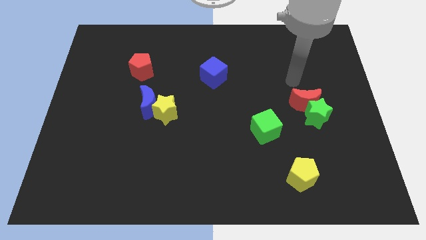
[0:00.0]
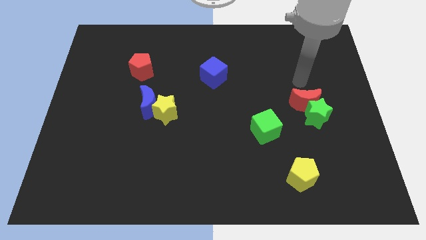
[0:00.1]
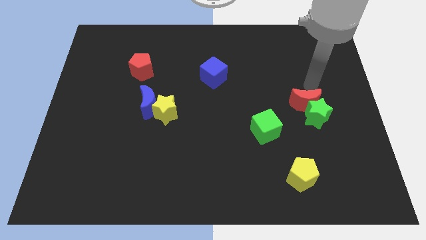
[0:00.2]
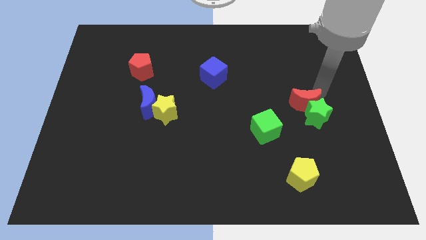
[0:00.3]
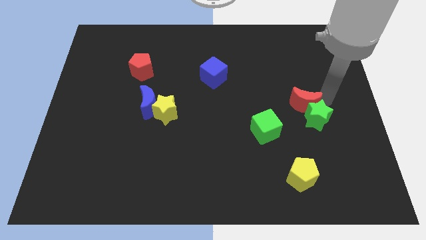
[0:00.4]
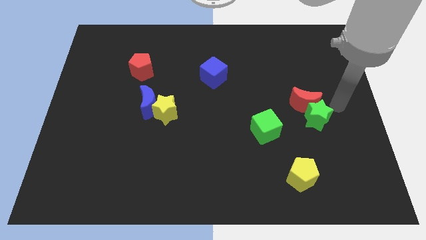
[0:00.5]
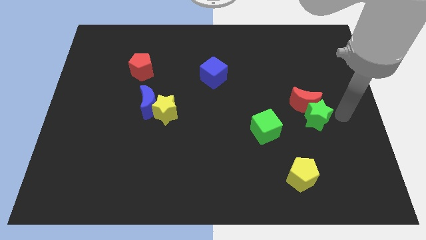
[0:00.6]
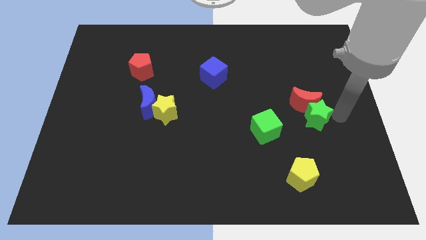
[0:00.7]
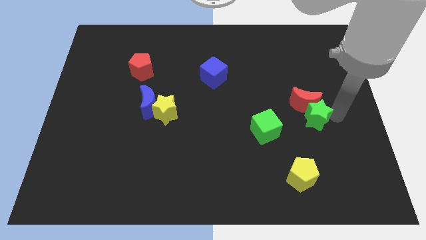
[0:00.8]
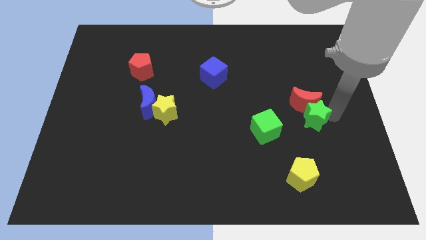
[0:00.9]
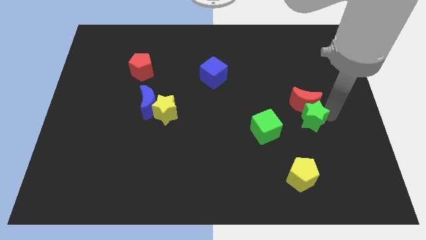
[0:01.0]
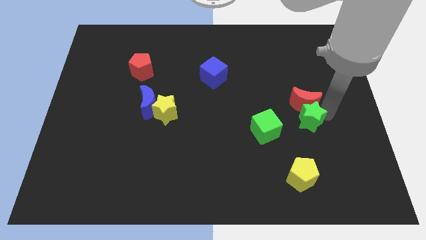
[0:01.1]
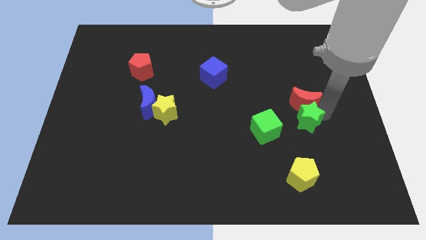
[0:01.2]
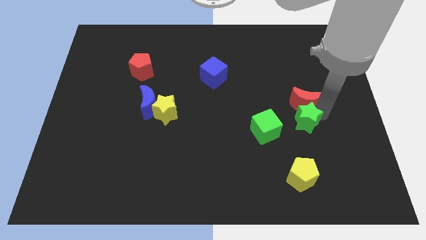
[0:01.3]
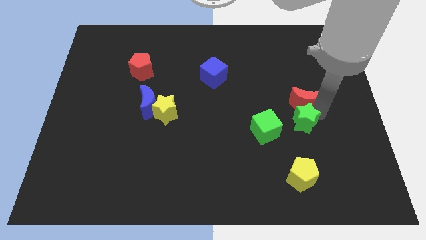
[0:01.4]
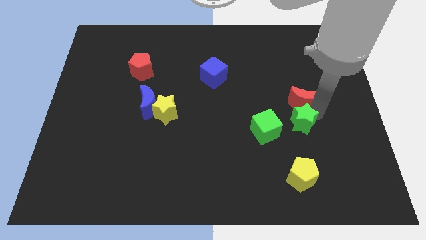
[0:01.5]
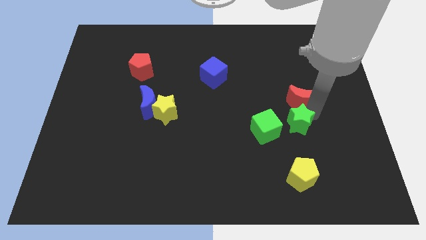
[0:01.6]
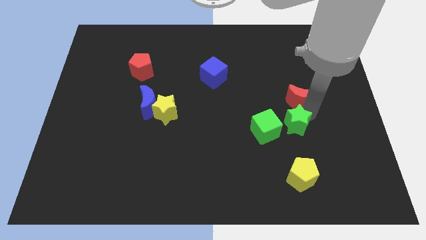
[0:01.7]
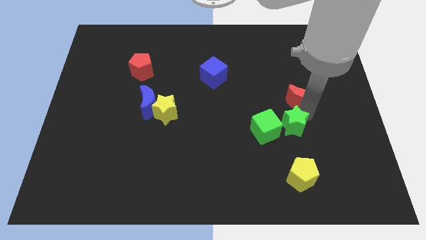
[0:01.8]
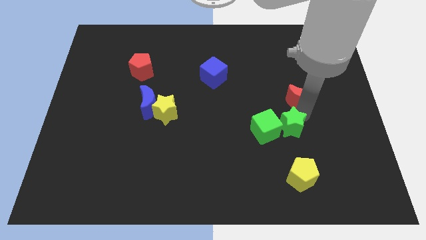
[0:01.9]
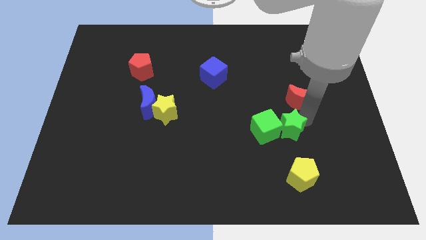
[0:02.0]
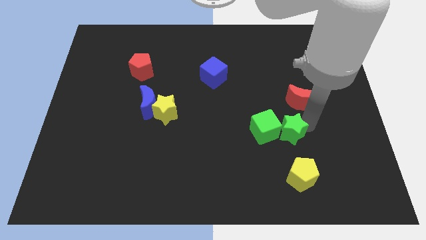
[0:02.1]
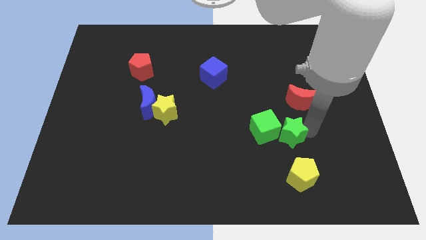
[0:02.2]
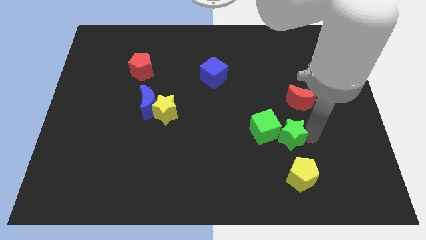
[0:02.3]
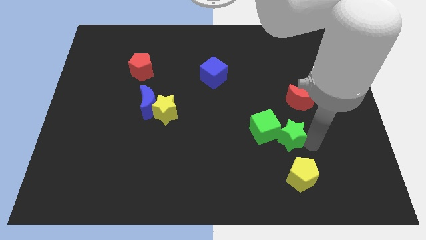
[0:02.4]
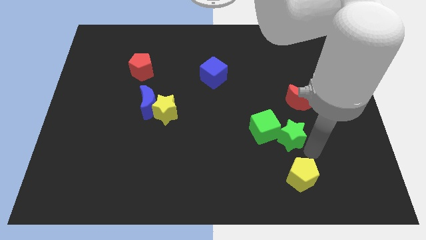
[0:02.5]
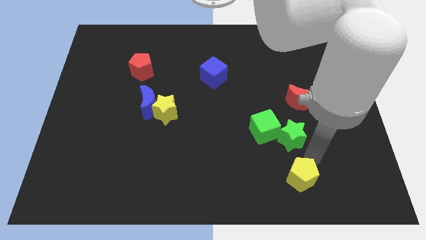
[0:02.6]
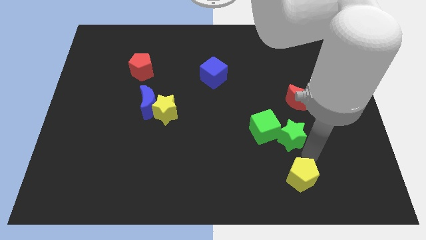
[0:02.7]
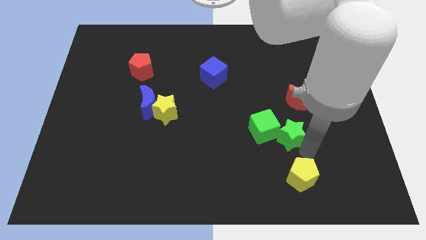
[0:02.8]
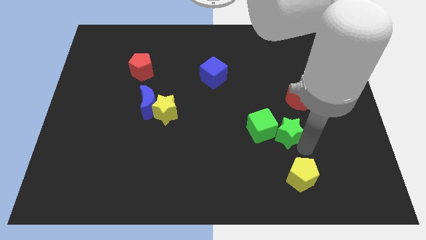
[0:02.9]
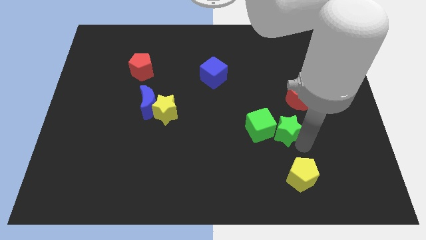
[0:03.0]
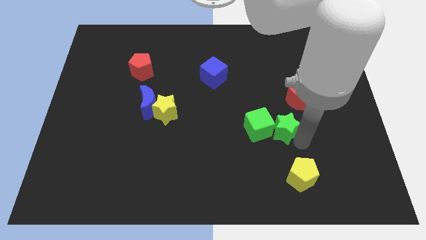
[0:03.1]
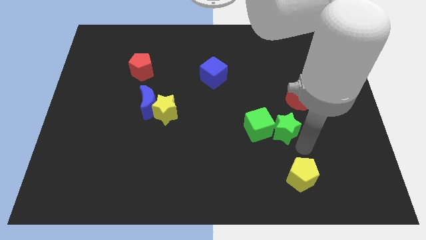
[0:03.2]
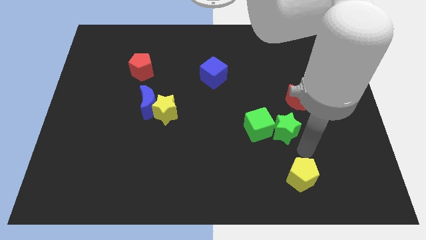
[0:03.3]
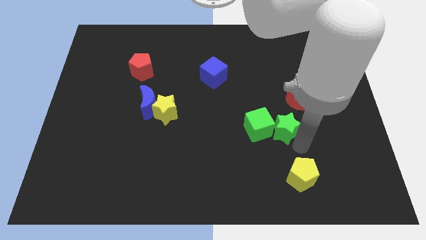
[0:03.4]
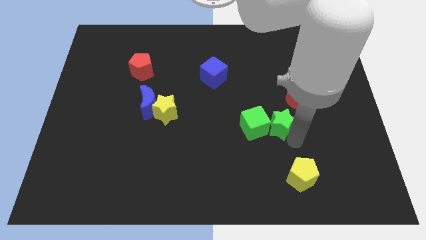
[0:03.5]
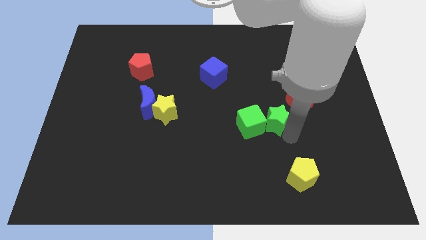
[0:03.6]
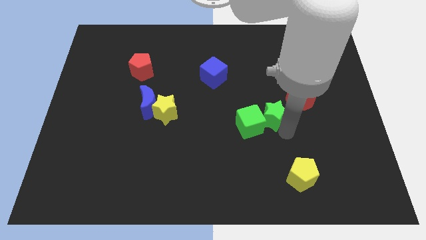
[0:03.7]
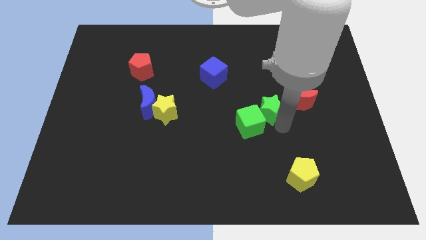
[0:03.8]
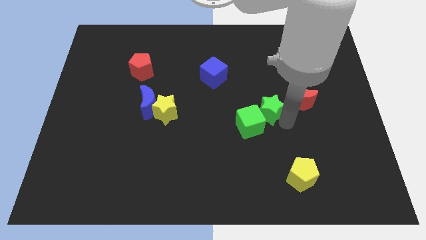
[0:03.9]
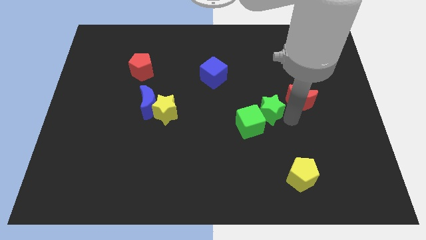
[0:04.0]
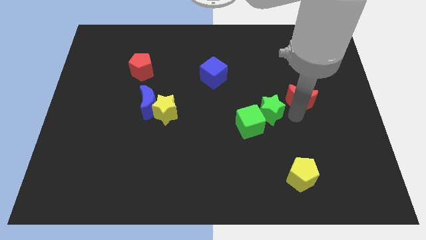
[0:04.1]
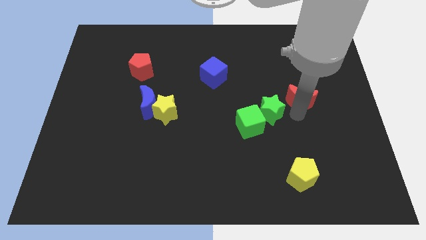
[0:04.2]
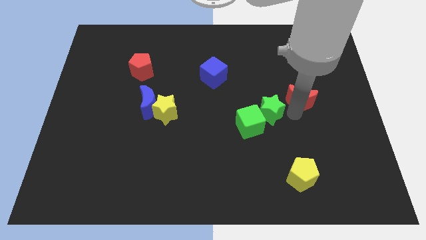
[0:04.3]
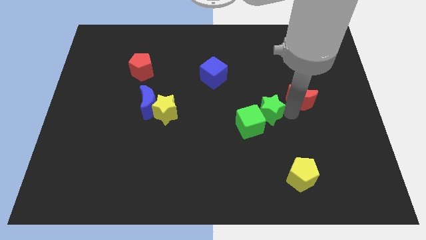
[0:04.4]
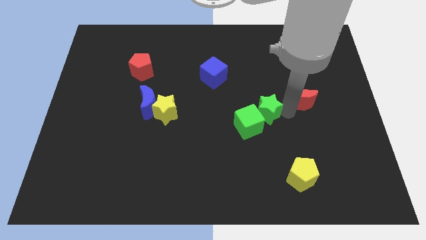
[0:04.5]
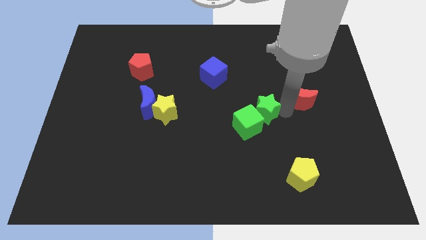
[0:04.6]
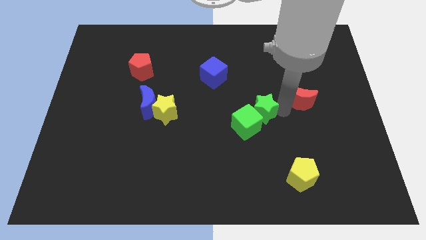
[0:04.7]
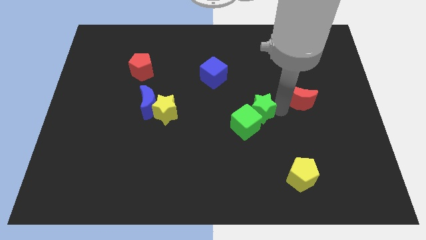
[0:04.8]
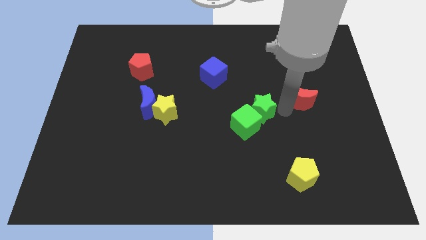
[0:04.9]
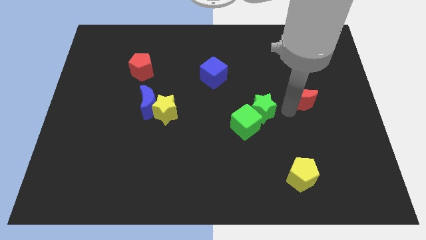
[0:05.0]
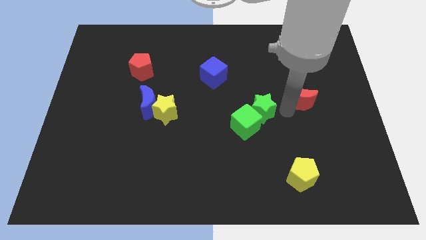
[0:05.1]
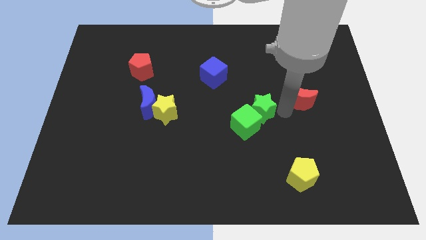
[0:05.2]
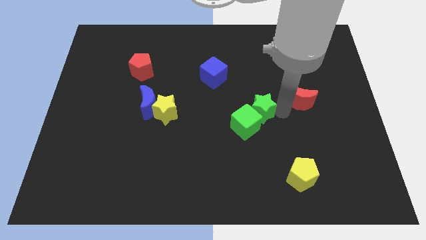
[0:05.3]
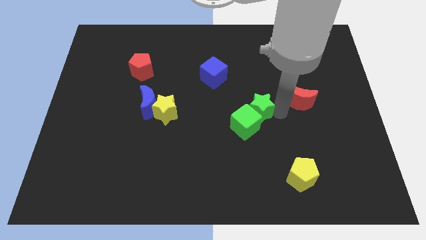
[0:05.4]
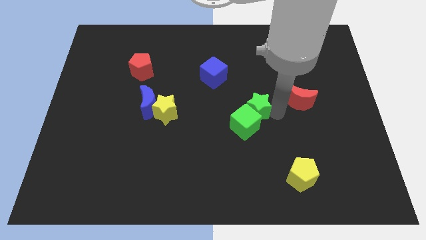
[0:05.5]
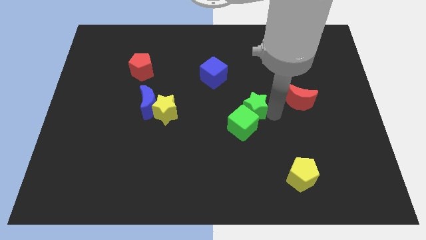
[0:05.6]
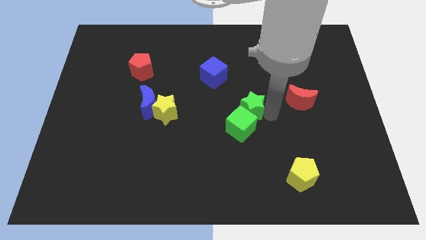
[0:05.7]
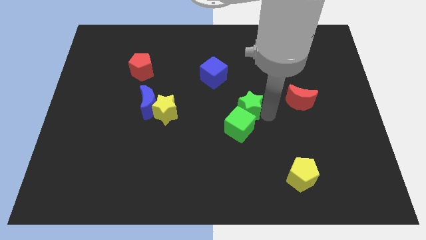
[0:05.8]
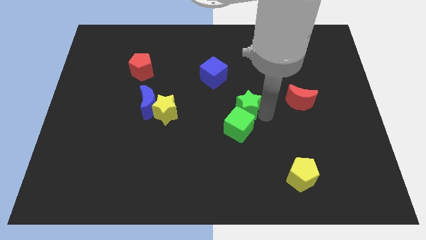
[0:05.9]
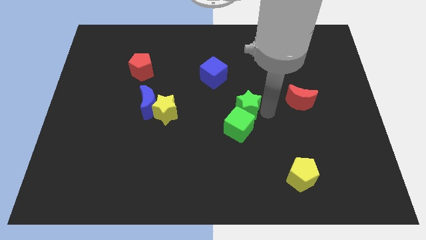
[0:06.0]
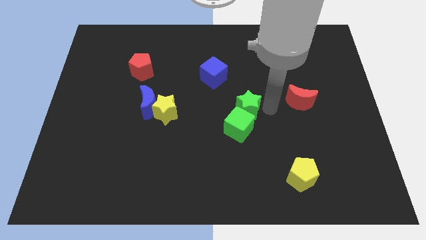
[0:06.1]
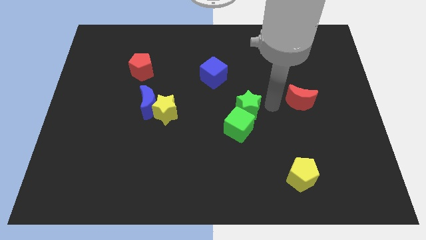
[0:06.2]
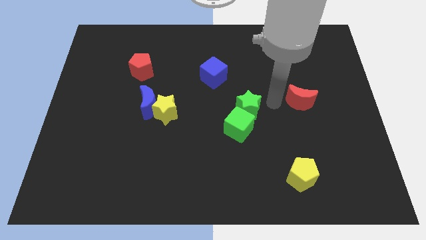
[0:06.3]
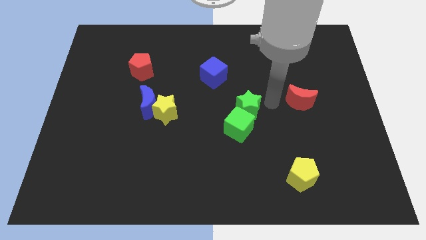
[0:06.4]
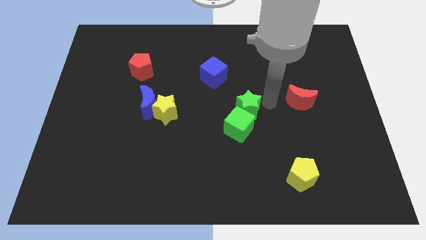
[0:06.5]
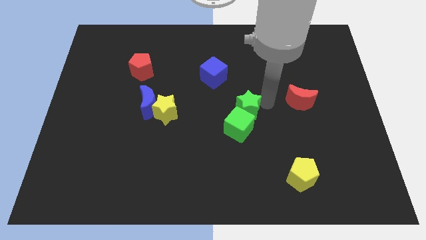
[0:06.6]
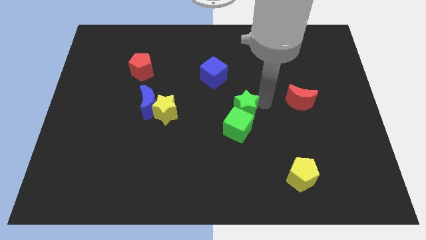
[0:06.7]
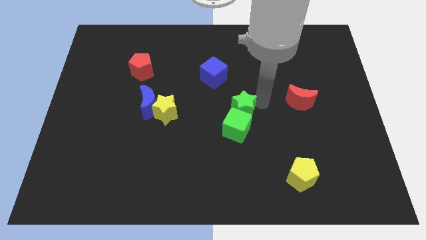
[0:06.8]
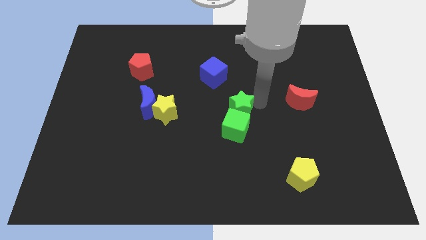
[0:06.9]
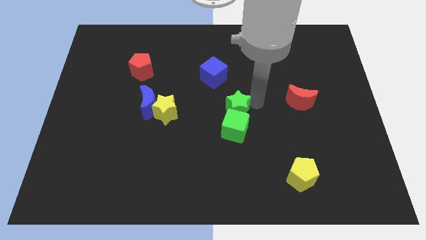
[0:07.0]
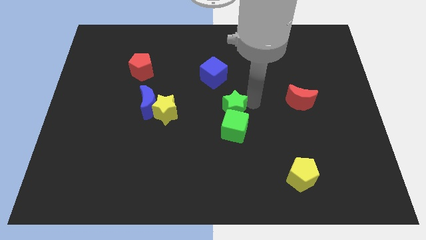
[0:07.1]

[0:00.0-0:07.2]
put the green star to the right side of the yellow star

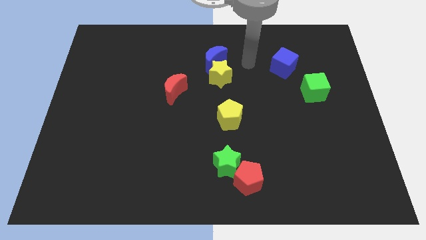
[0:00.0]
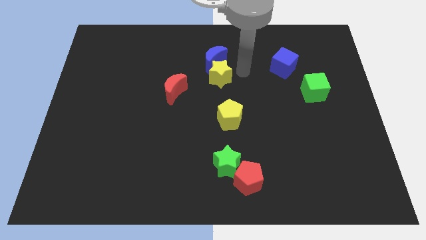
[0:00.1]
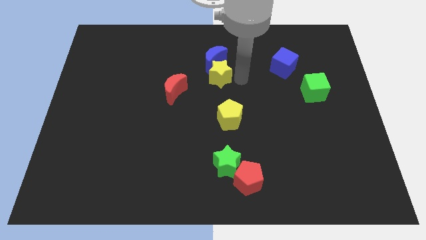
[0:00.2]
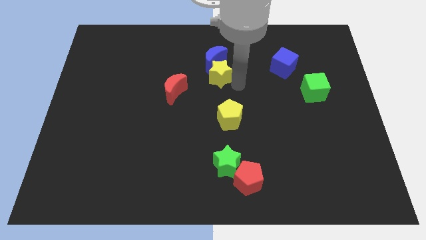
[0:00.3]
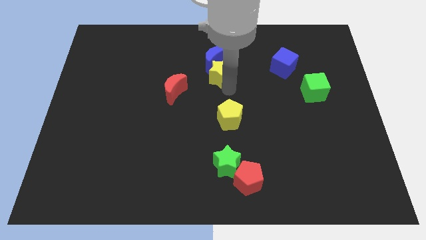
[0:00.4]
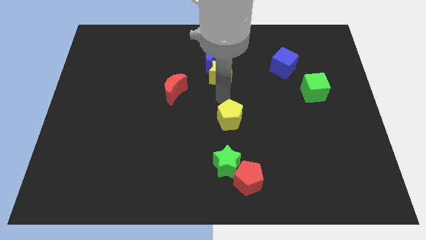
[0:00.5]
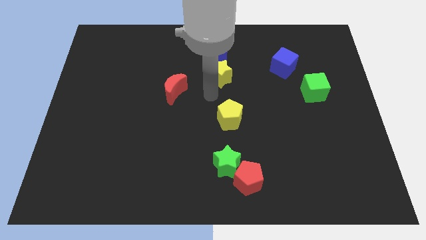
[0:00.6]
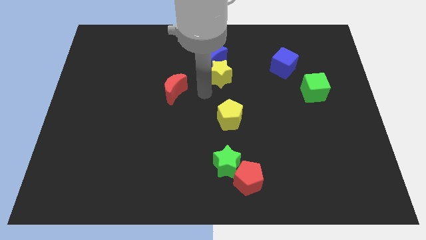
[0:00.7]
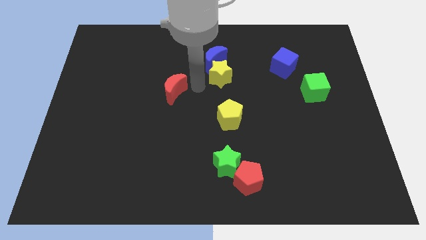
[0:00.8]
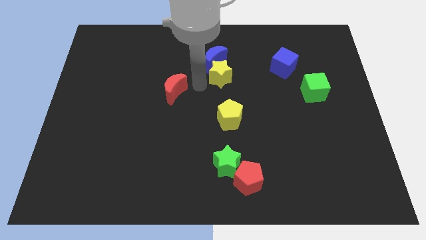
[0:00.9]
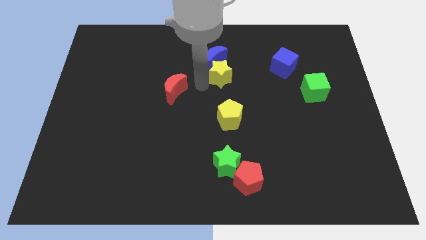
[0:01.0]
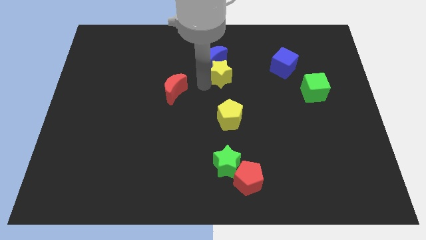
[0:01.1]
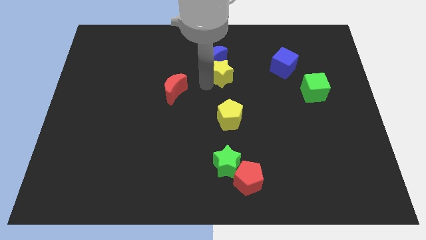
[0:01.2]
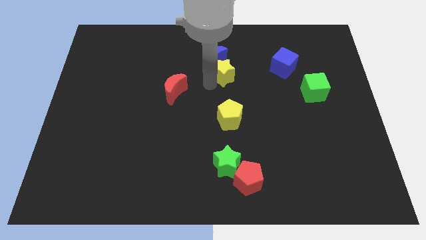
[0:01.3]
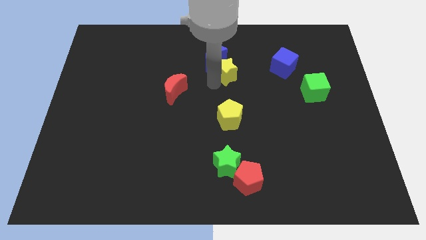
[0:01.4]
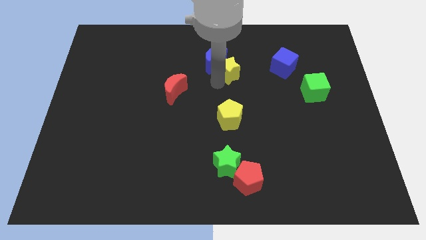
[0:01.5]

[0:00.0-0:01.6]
push the yellow star to the right of the blue moon
